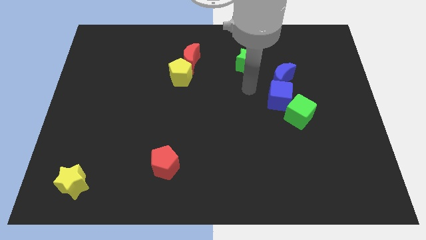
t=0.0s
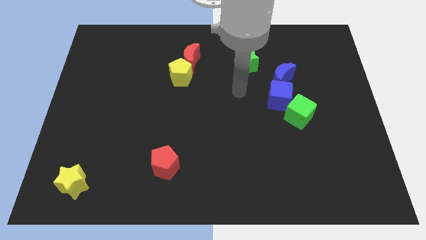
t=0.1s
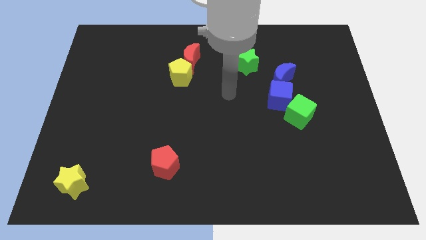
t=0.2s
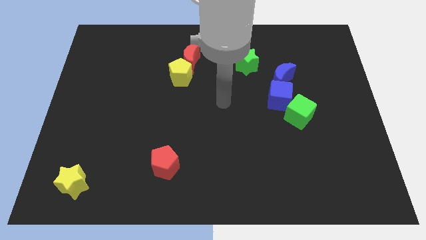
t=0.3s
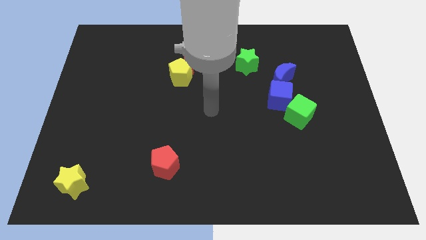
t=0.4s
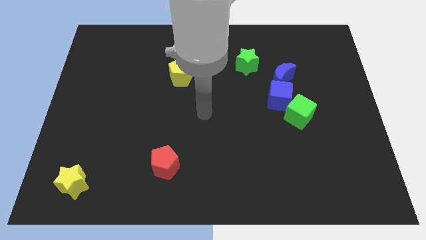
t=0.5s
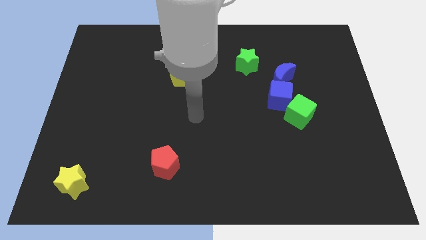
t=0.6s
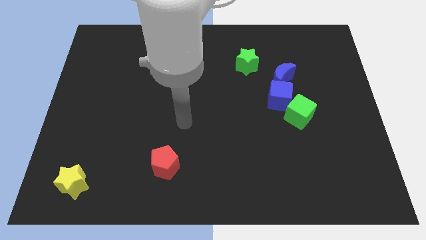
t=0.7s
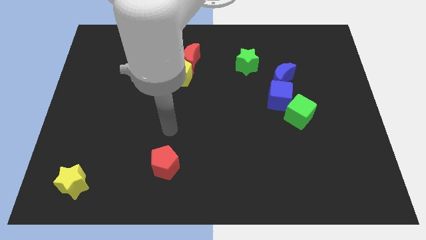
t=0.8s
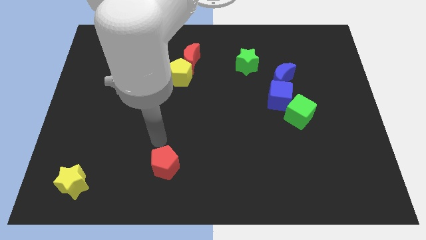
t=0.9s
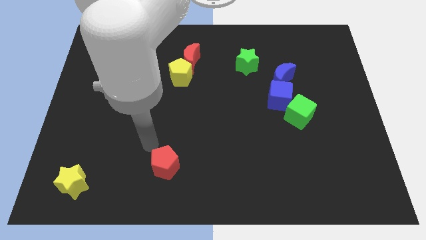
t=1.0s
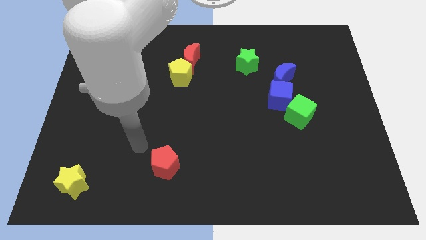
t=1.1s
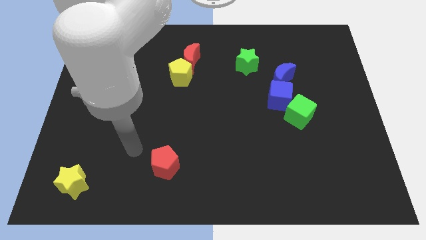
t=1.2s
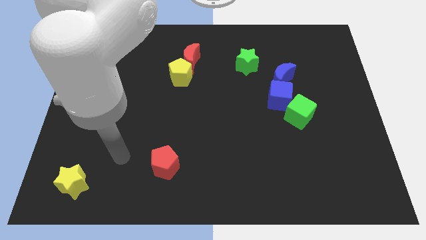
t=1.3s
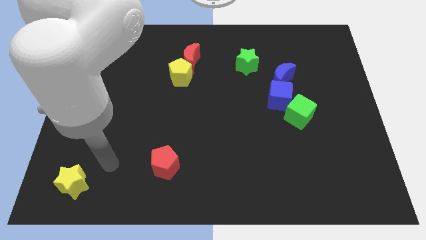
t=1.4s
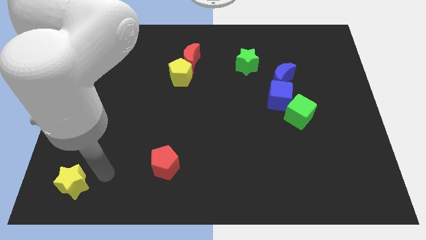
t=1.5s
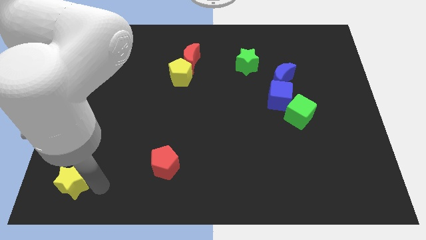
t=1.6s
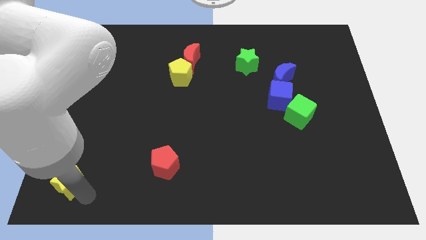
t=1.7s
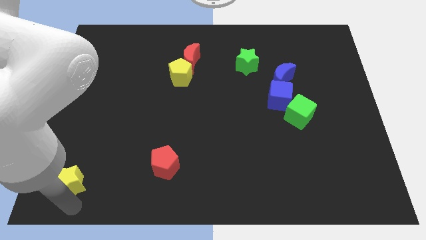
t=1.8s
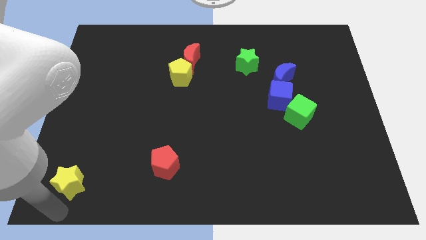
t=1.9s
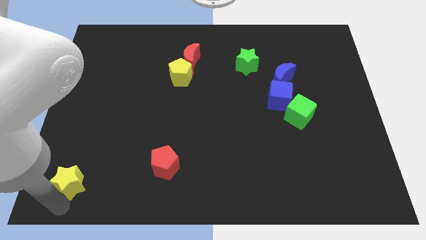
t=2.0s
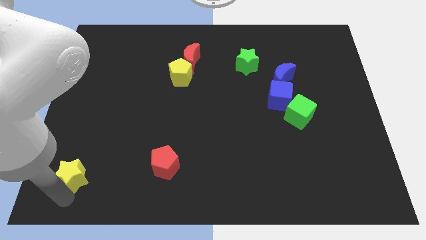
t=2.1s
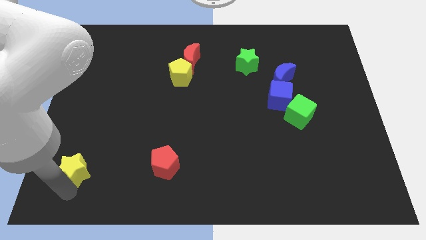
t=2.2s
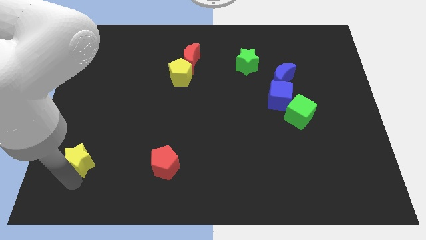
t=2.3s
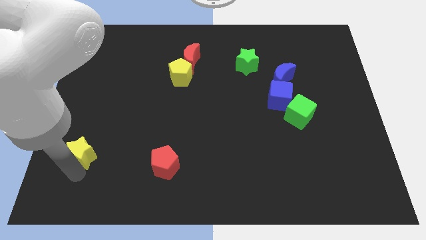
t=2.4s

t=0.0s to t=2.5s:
push the yellow star upwards a bit

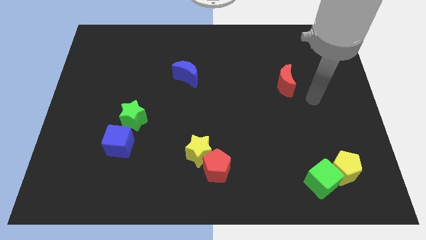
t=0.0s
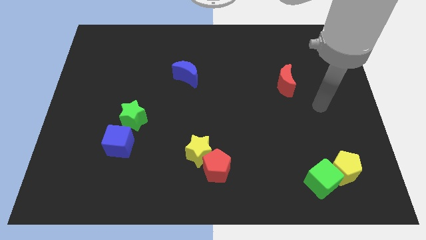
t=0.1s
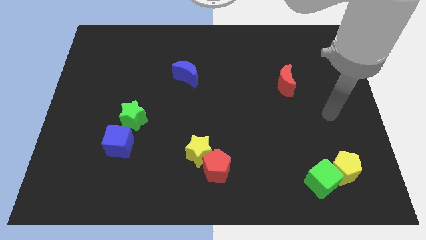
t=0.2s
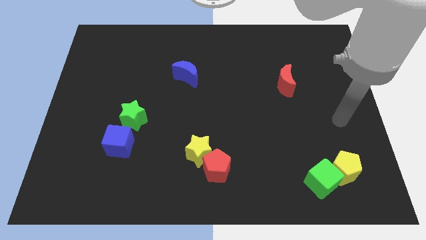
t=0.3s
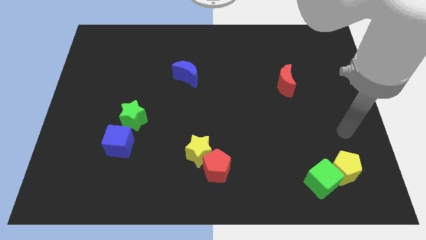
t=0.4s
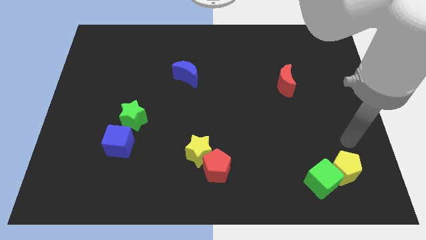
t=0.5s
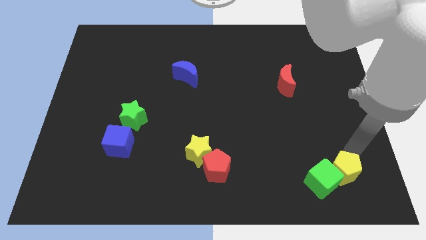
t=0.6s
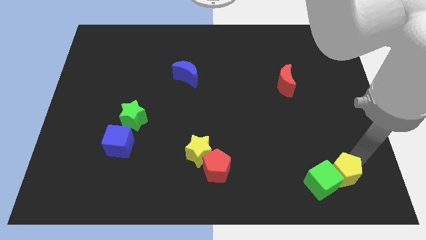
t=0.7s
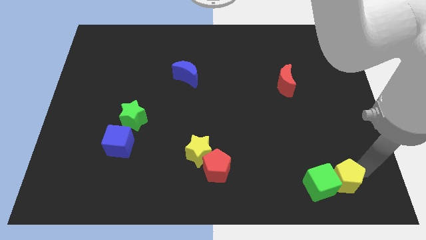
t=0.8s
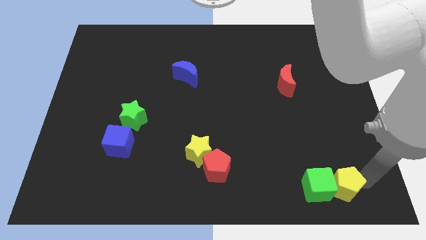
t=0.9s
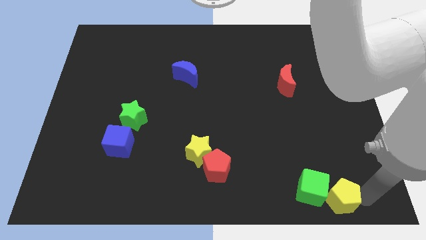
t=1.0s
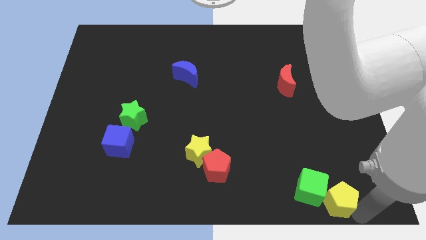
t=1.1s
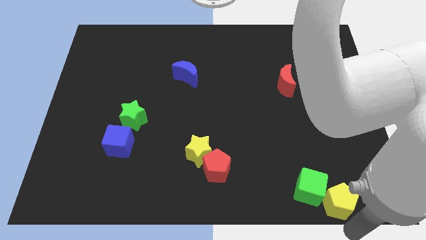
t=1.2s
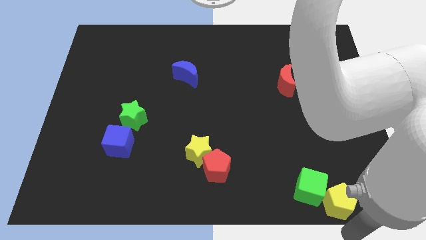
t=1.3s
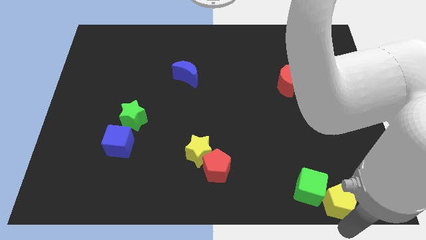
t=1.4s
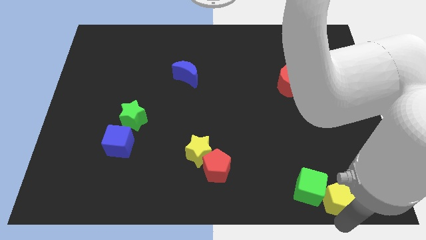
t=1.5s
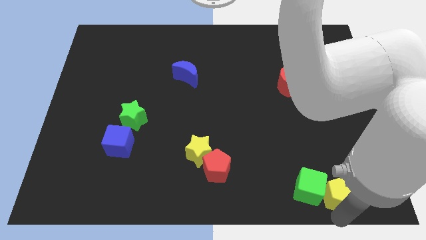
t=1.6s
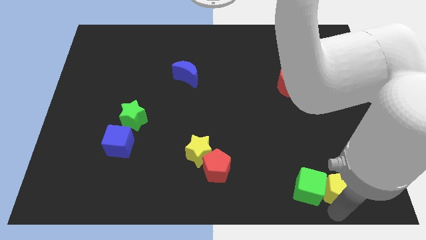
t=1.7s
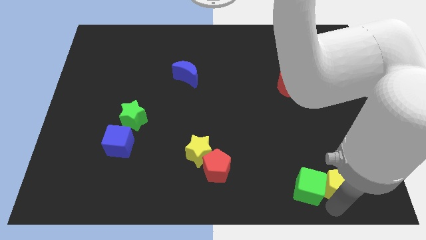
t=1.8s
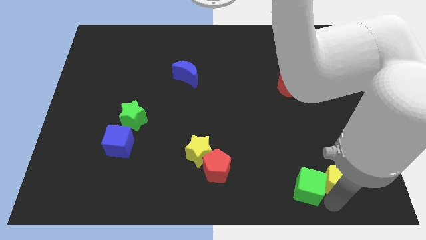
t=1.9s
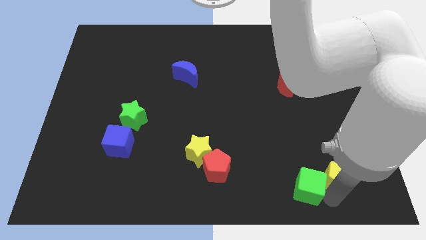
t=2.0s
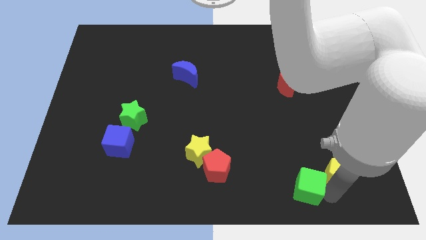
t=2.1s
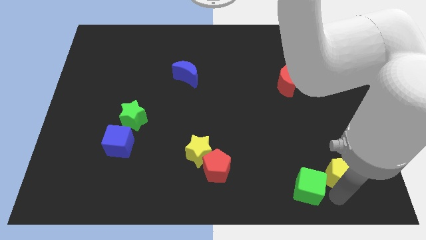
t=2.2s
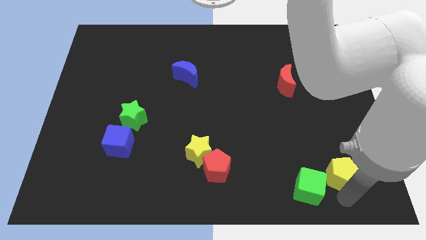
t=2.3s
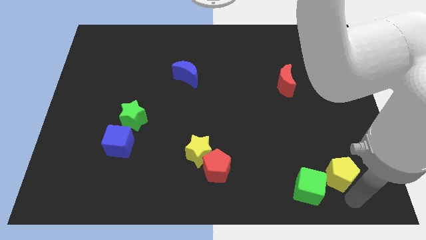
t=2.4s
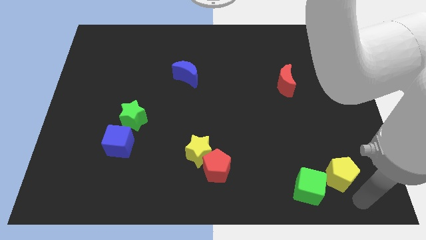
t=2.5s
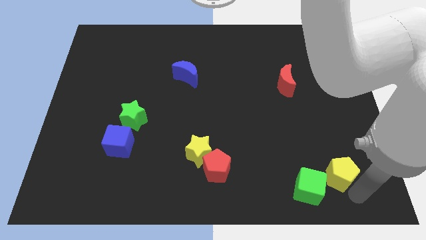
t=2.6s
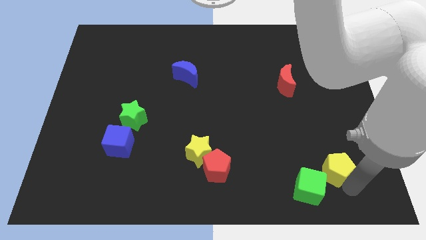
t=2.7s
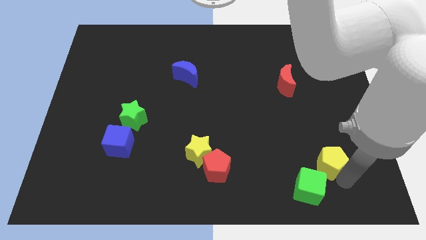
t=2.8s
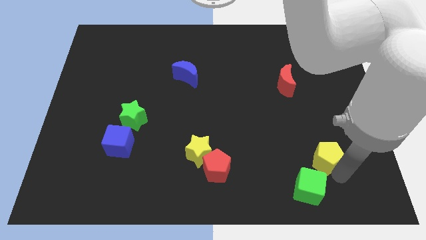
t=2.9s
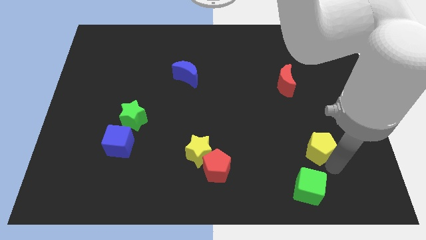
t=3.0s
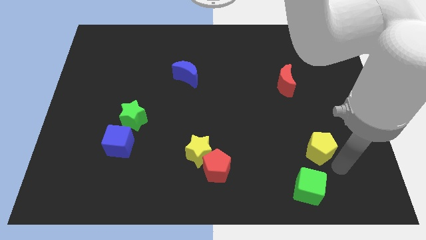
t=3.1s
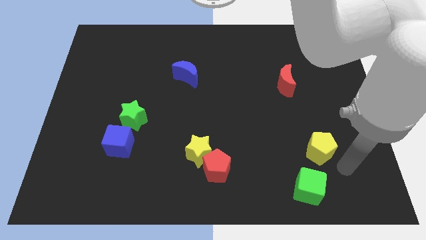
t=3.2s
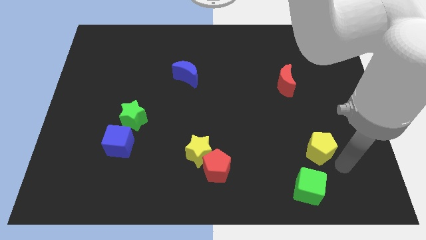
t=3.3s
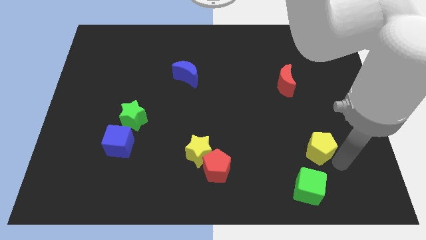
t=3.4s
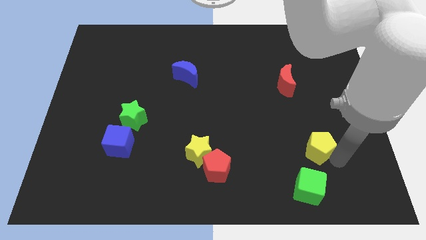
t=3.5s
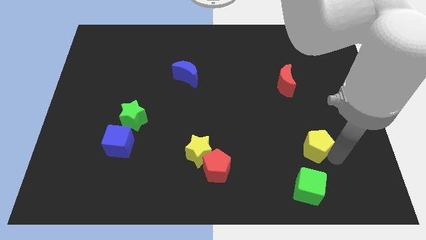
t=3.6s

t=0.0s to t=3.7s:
slightly move the yellow pentagon up and left

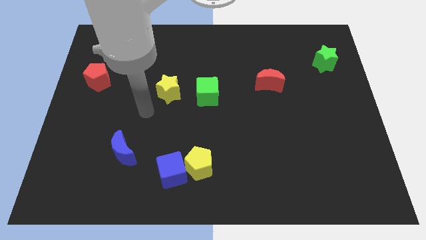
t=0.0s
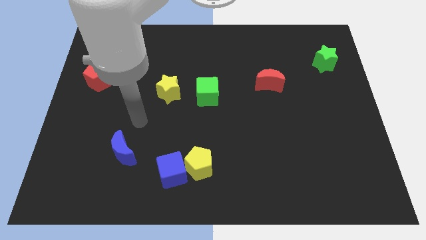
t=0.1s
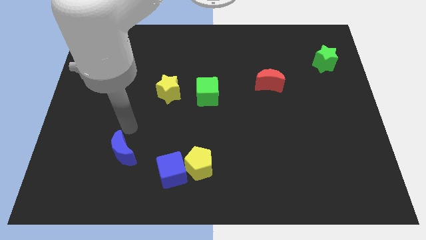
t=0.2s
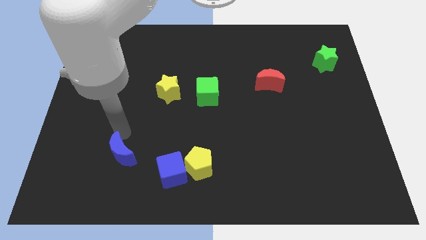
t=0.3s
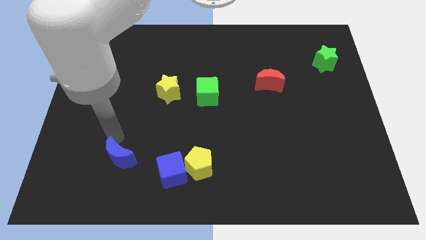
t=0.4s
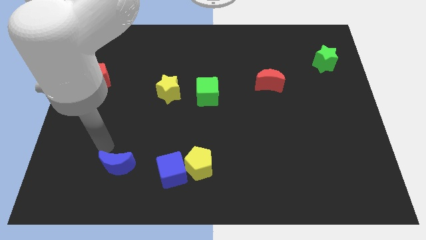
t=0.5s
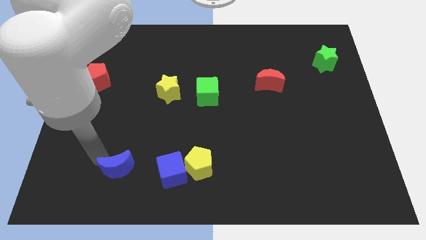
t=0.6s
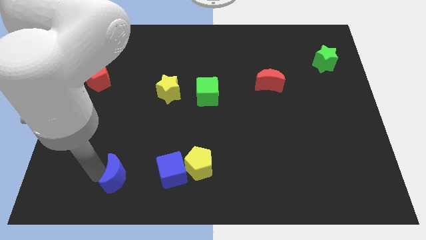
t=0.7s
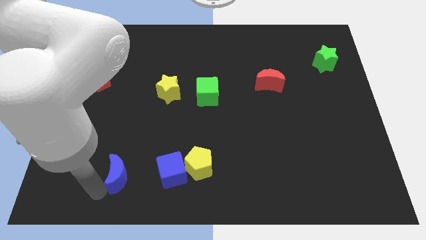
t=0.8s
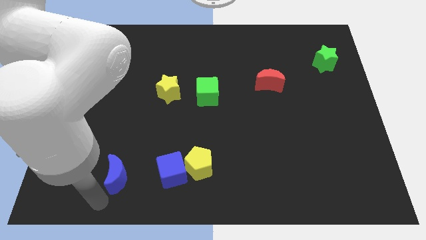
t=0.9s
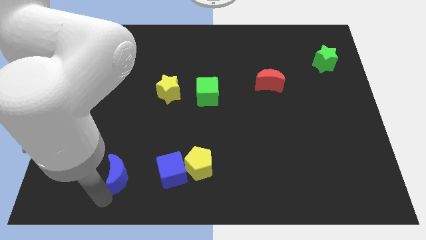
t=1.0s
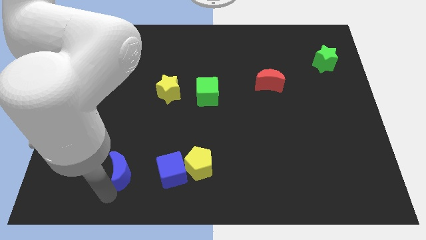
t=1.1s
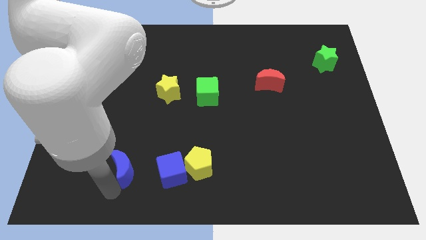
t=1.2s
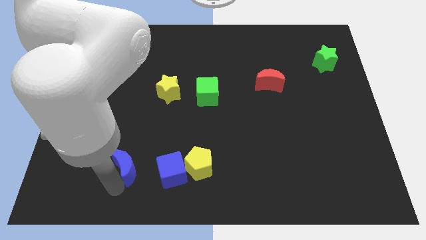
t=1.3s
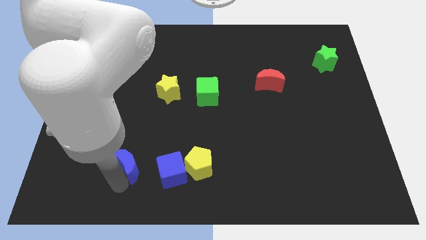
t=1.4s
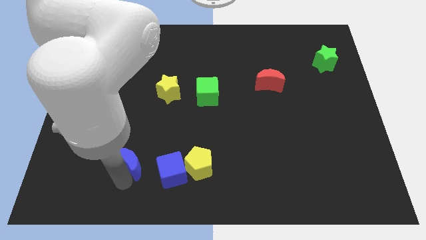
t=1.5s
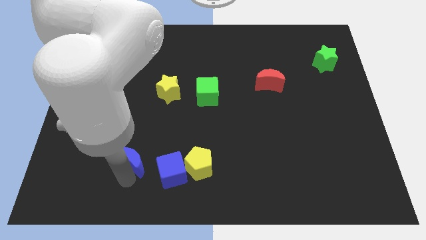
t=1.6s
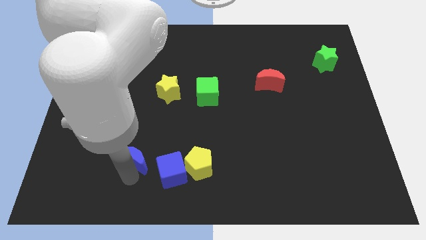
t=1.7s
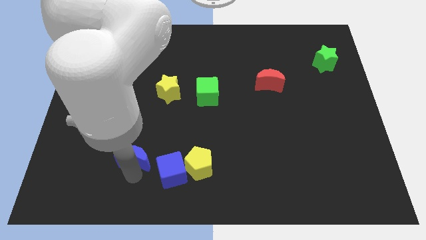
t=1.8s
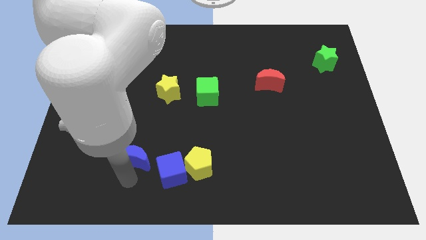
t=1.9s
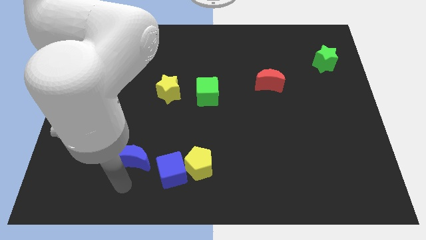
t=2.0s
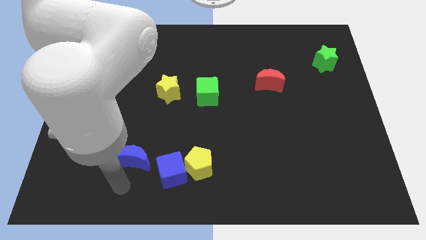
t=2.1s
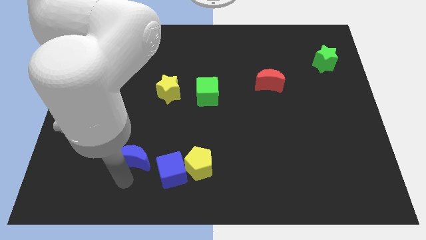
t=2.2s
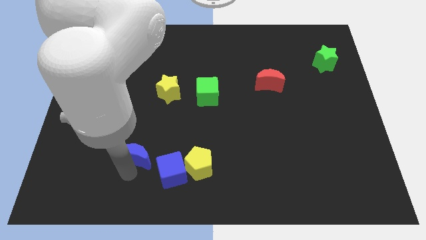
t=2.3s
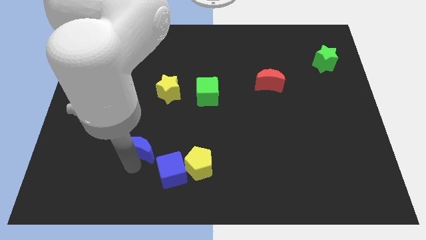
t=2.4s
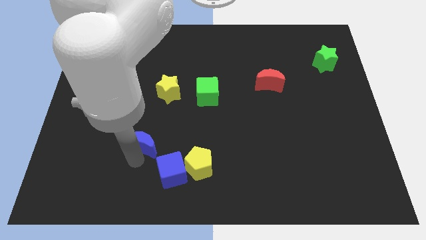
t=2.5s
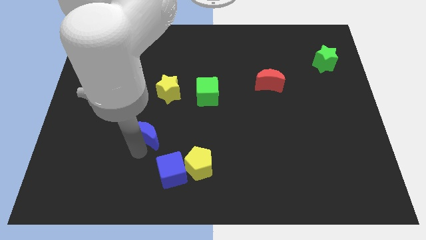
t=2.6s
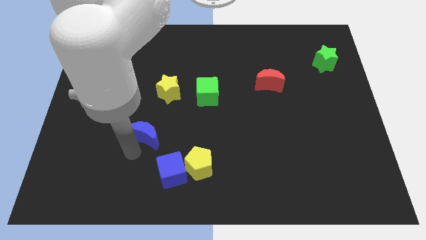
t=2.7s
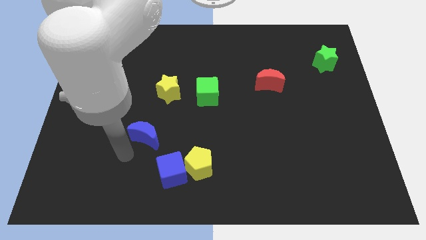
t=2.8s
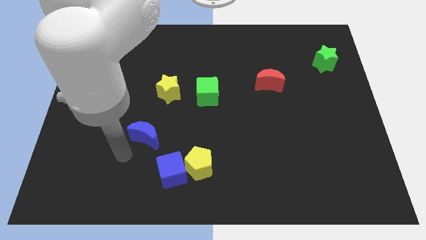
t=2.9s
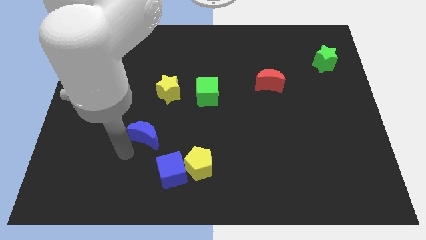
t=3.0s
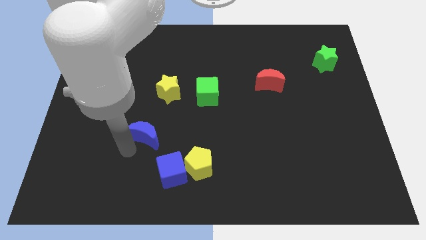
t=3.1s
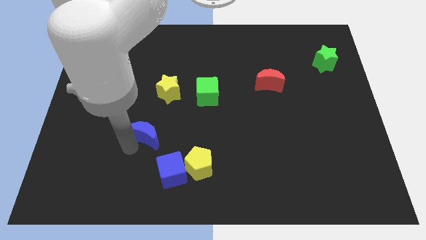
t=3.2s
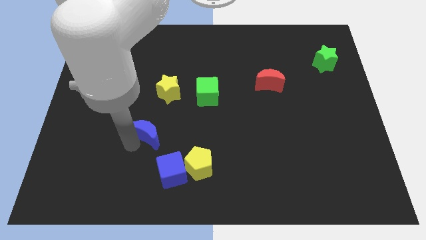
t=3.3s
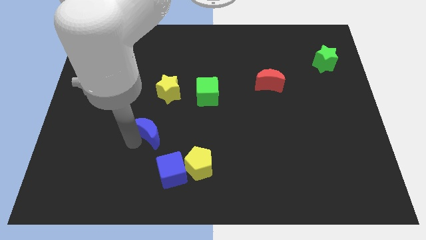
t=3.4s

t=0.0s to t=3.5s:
push the blue moon upwards and to the right diagonally slightly
